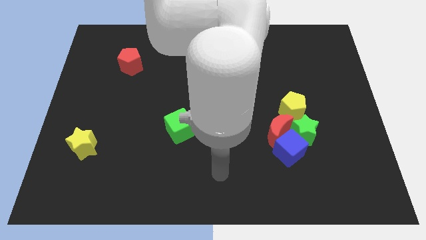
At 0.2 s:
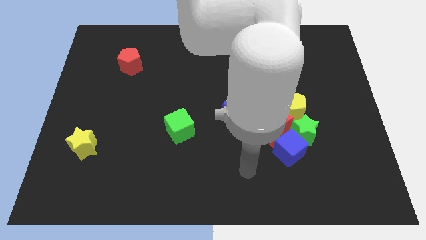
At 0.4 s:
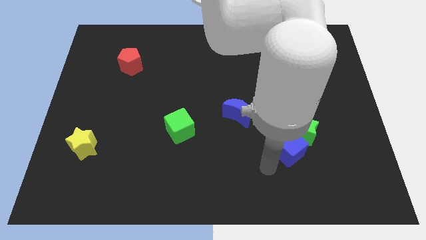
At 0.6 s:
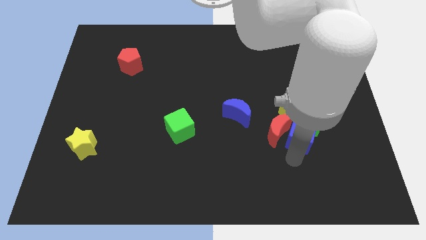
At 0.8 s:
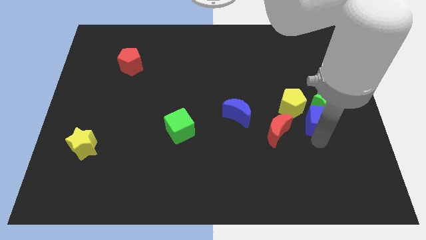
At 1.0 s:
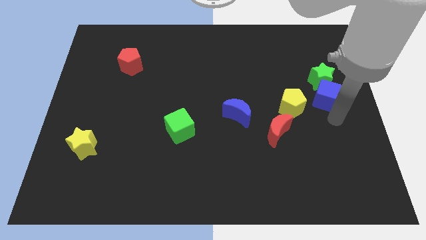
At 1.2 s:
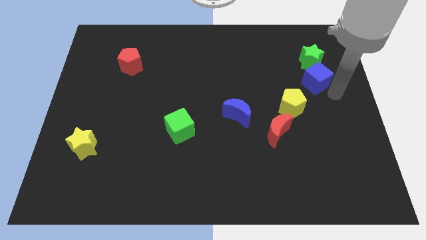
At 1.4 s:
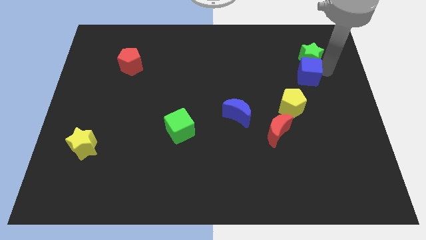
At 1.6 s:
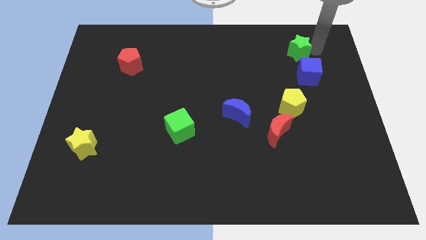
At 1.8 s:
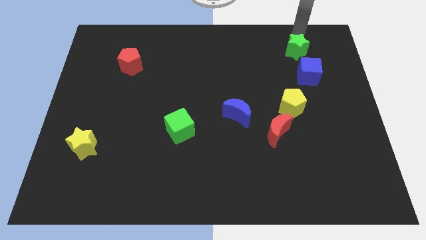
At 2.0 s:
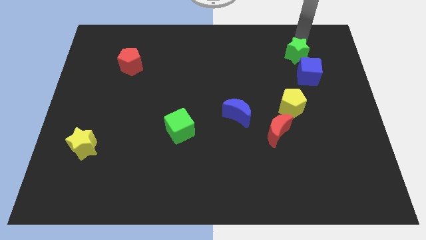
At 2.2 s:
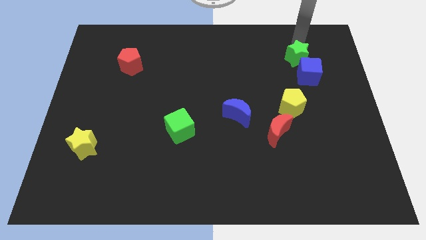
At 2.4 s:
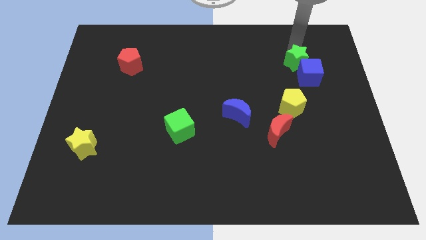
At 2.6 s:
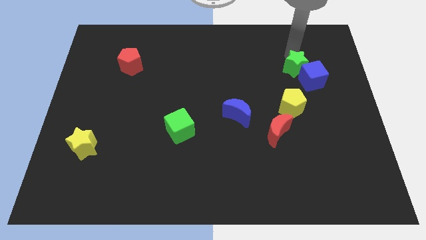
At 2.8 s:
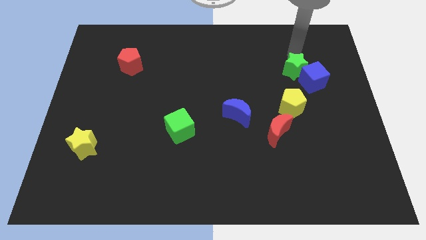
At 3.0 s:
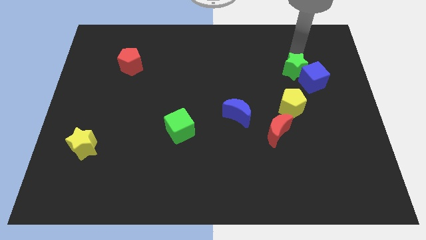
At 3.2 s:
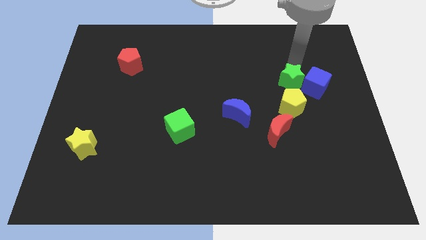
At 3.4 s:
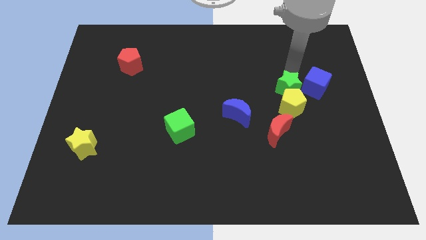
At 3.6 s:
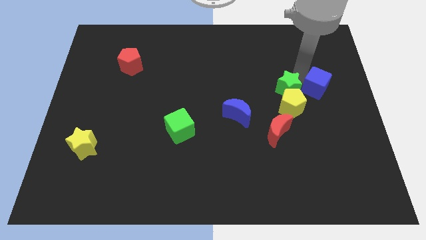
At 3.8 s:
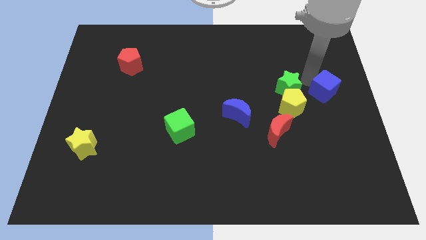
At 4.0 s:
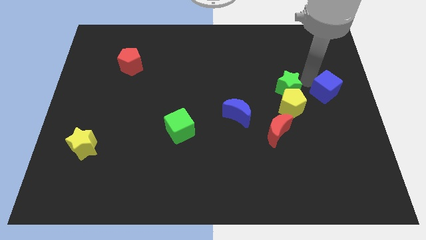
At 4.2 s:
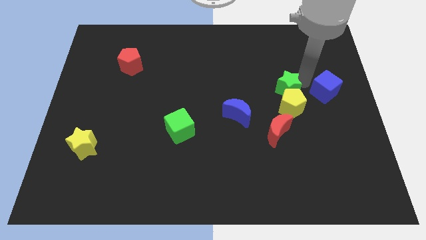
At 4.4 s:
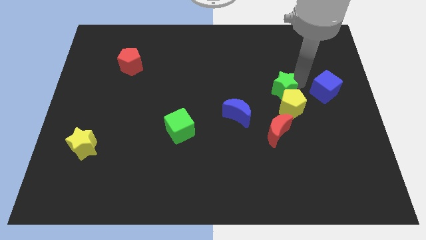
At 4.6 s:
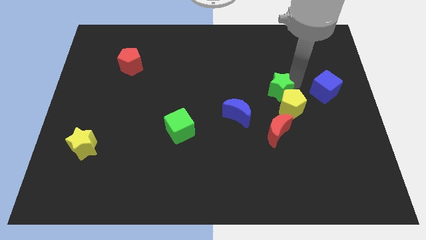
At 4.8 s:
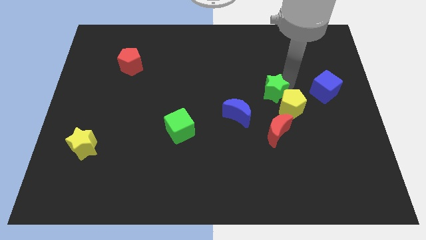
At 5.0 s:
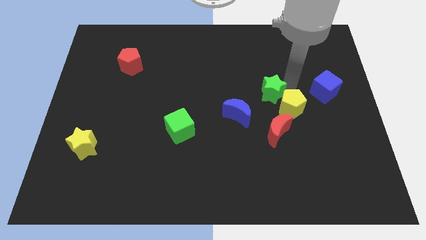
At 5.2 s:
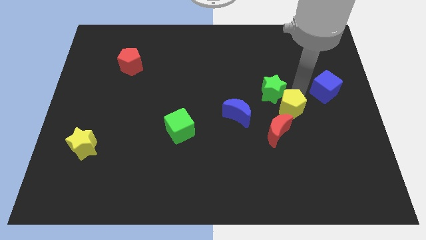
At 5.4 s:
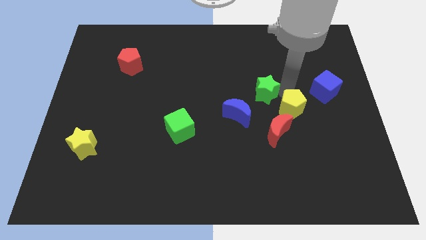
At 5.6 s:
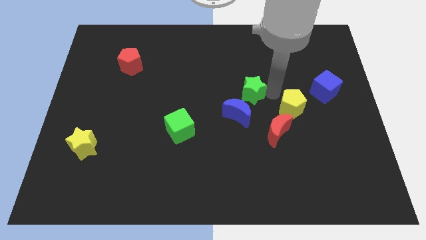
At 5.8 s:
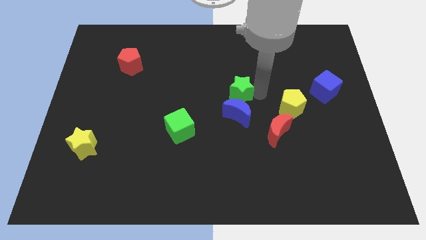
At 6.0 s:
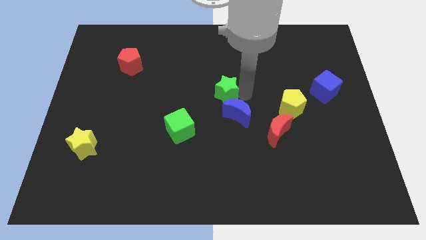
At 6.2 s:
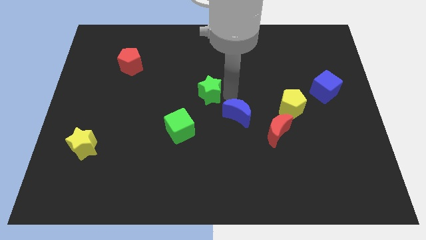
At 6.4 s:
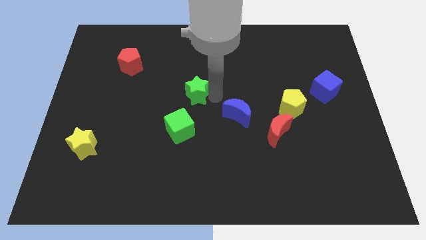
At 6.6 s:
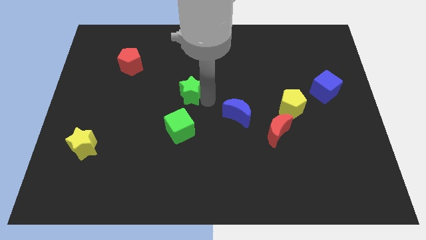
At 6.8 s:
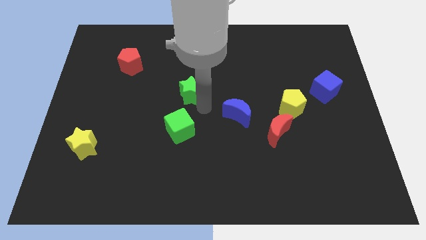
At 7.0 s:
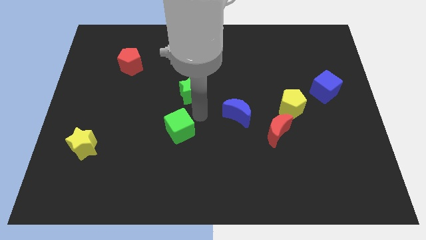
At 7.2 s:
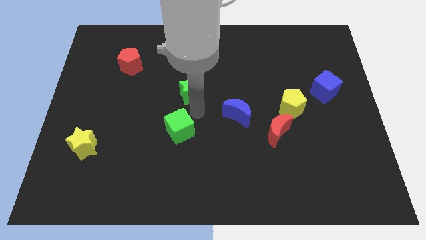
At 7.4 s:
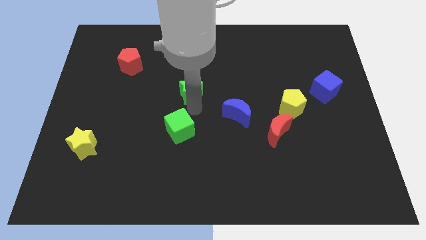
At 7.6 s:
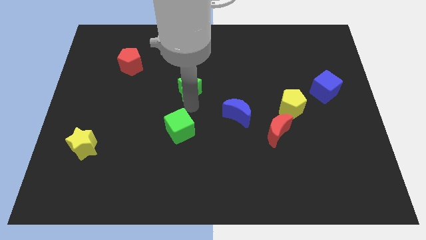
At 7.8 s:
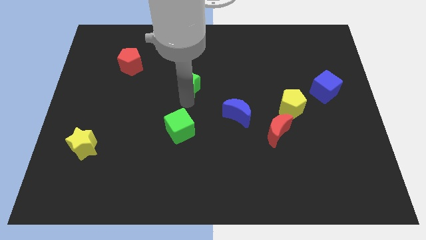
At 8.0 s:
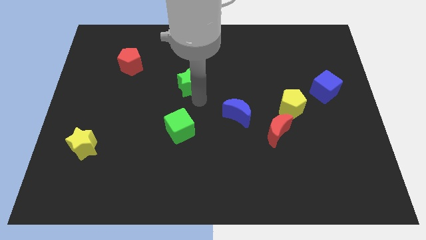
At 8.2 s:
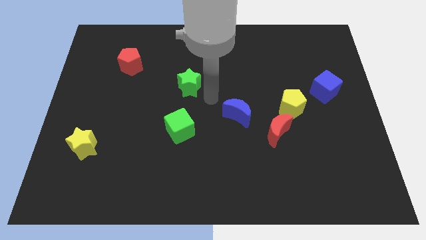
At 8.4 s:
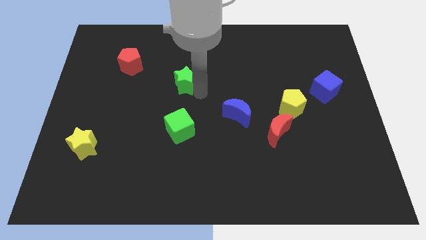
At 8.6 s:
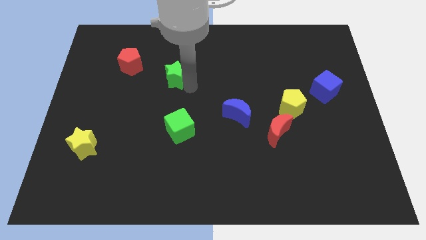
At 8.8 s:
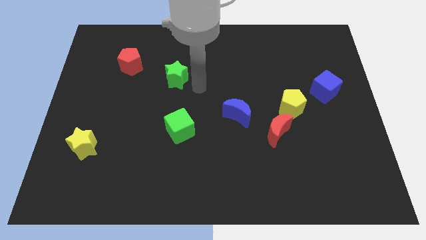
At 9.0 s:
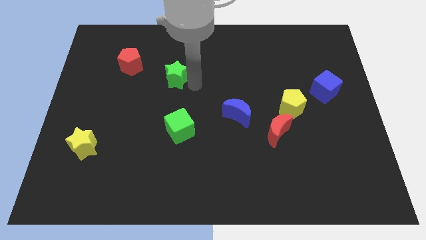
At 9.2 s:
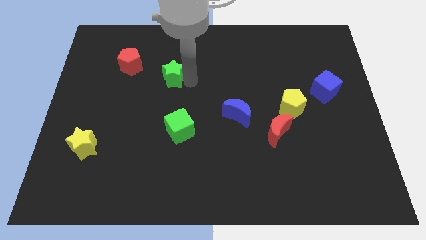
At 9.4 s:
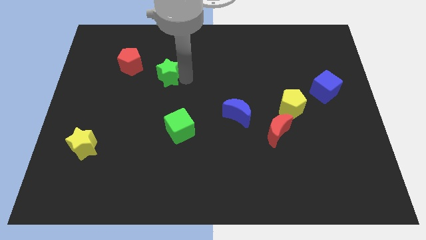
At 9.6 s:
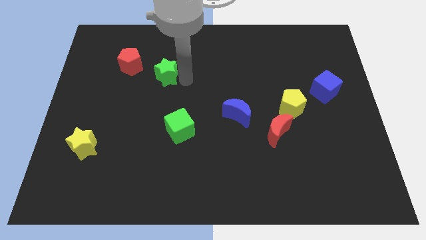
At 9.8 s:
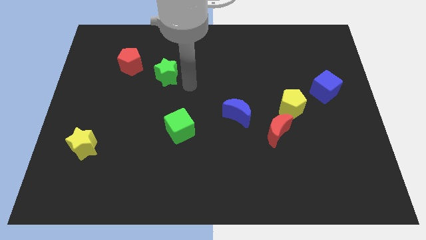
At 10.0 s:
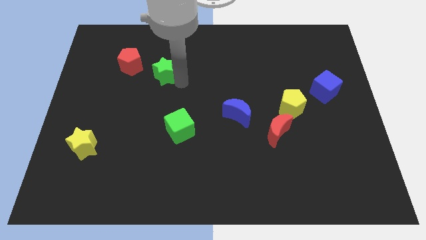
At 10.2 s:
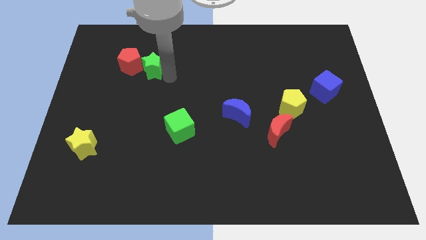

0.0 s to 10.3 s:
slide the green star next to the red pentagon

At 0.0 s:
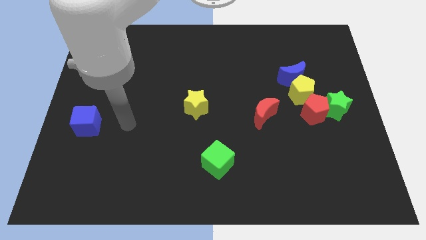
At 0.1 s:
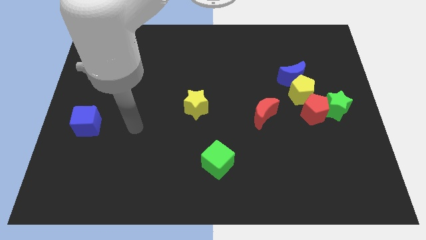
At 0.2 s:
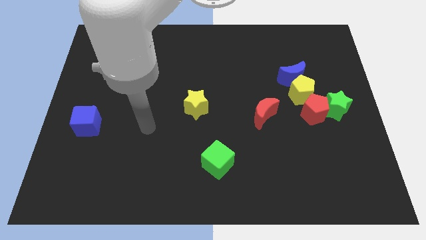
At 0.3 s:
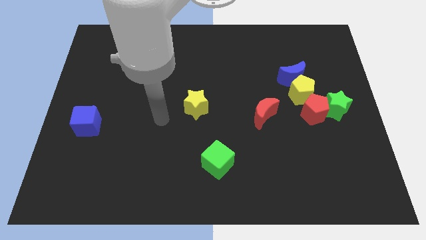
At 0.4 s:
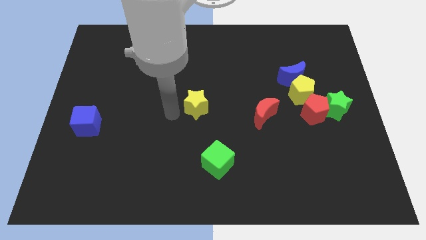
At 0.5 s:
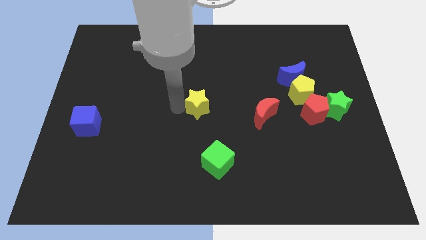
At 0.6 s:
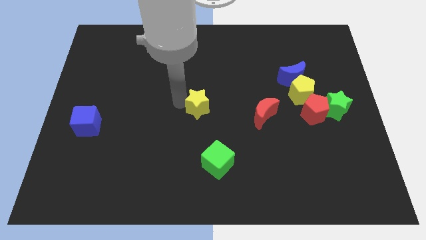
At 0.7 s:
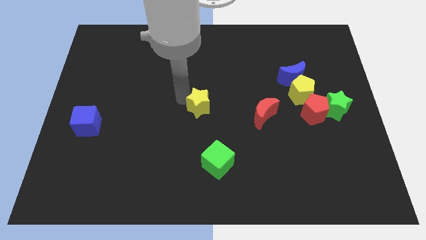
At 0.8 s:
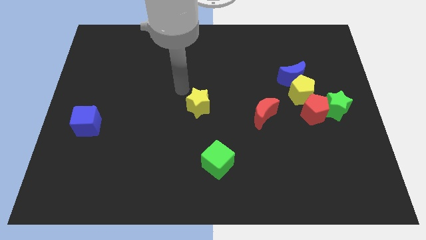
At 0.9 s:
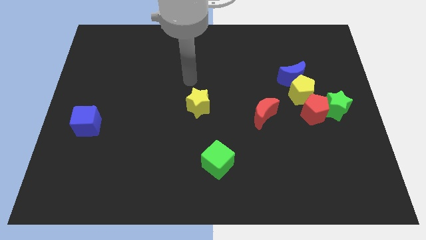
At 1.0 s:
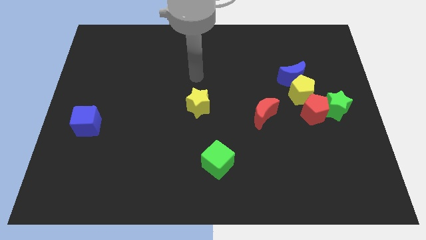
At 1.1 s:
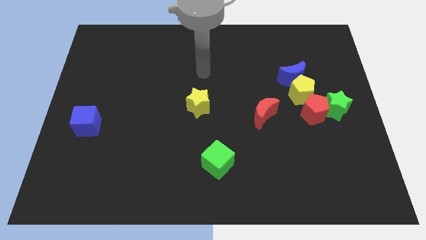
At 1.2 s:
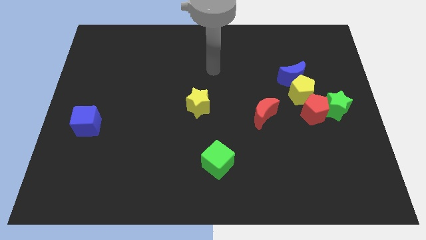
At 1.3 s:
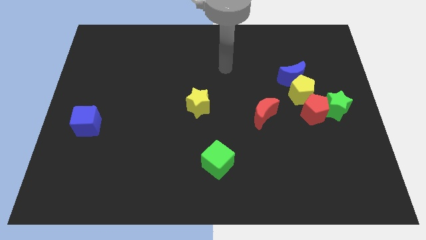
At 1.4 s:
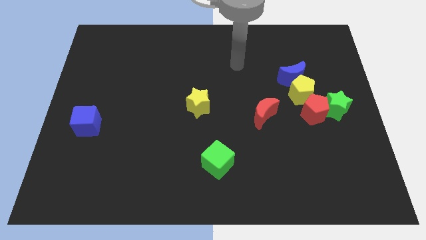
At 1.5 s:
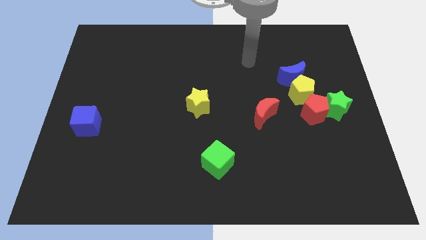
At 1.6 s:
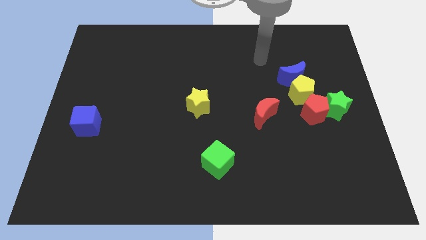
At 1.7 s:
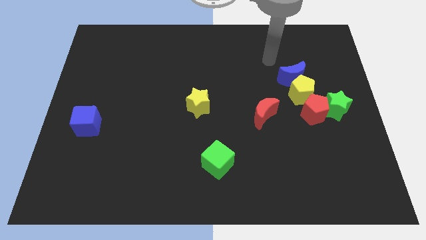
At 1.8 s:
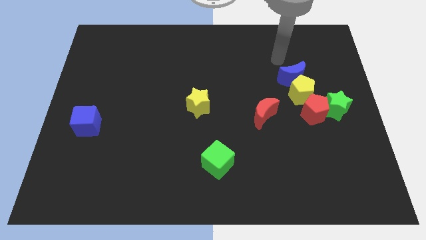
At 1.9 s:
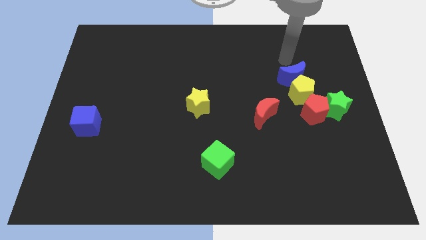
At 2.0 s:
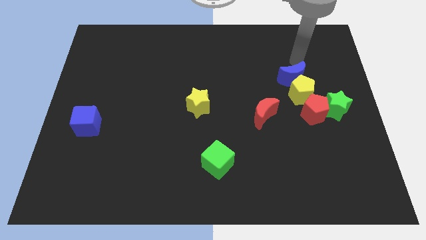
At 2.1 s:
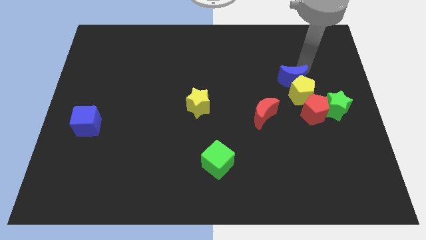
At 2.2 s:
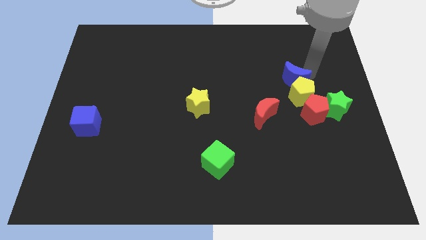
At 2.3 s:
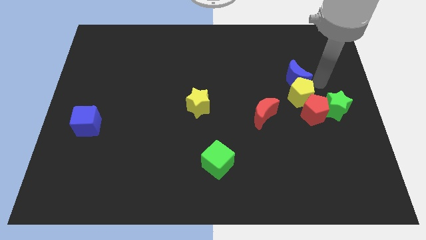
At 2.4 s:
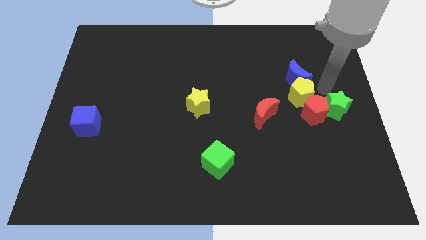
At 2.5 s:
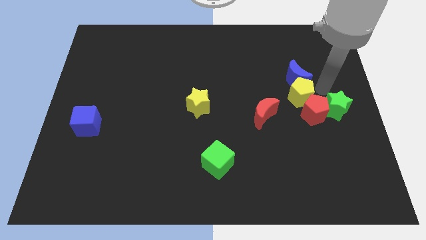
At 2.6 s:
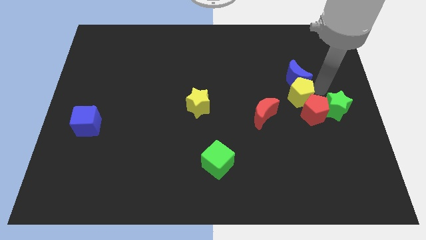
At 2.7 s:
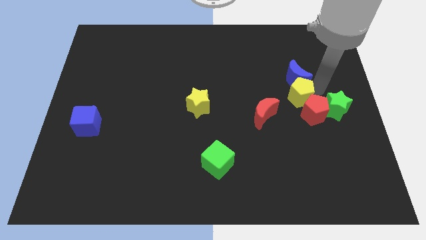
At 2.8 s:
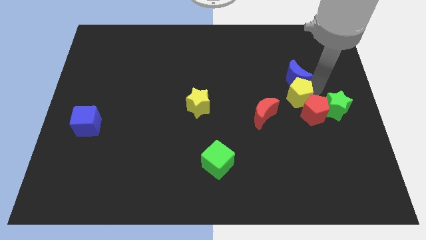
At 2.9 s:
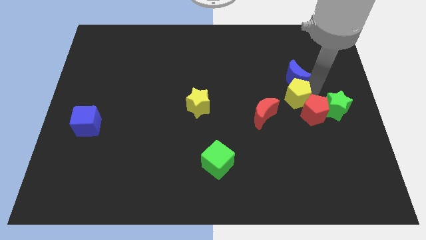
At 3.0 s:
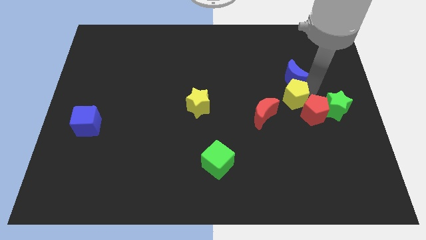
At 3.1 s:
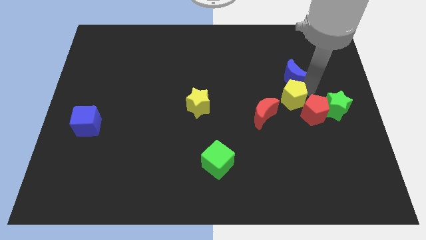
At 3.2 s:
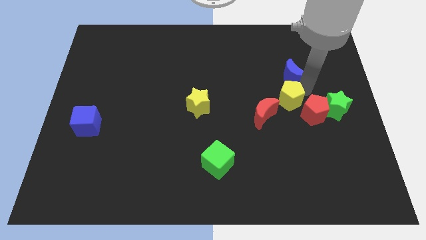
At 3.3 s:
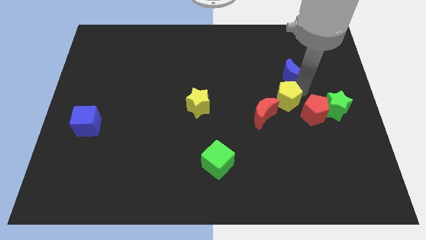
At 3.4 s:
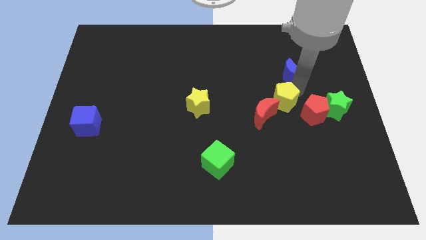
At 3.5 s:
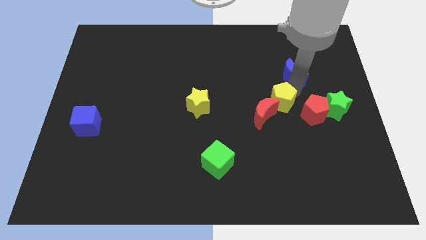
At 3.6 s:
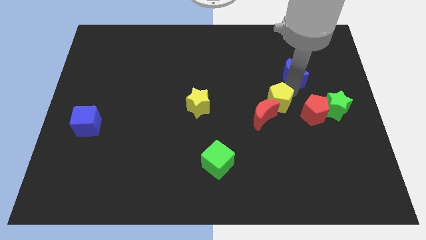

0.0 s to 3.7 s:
slide the yellow pentagon towards the red moon
